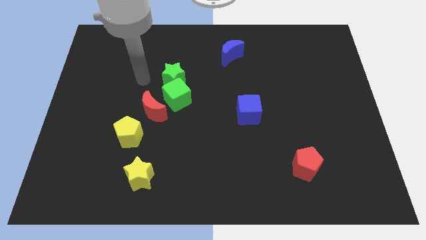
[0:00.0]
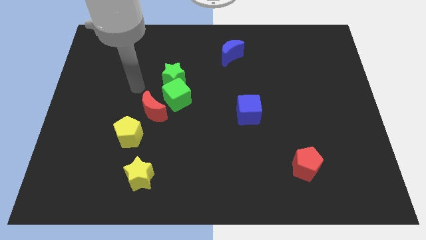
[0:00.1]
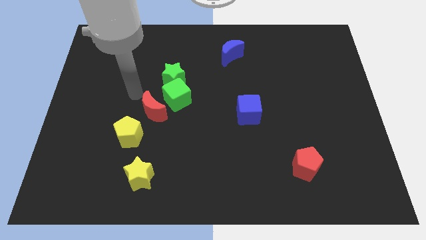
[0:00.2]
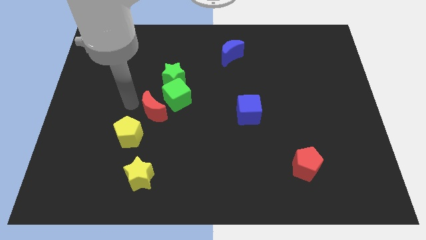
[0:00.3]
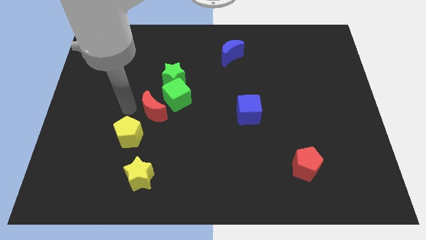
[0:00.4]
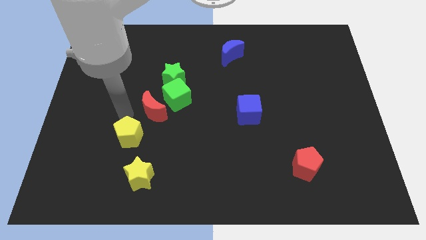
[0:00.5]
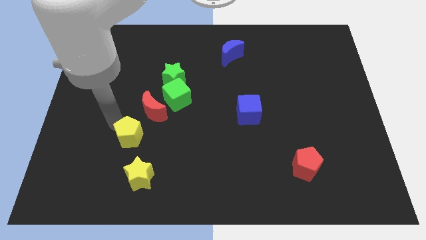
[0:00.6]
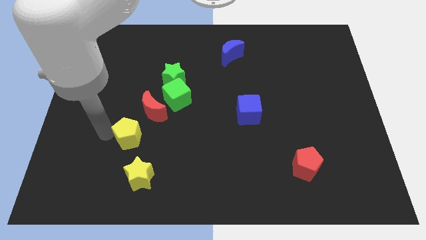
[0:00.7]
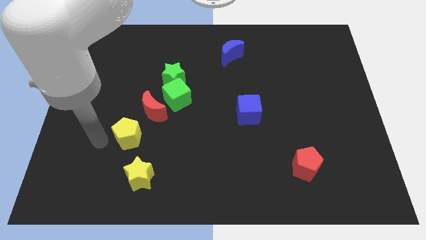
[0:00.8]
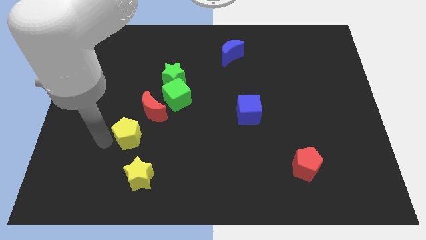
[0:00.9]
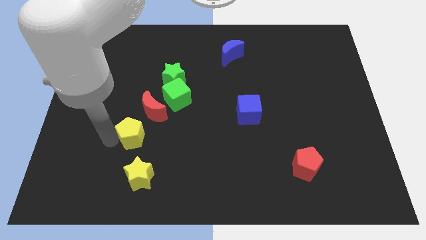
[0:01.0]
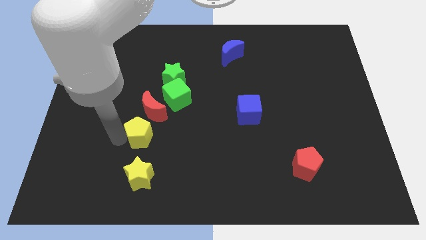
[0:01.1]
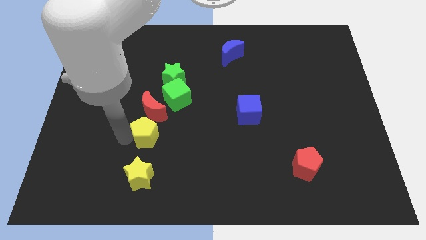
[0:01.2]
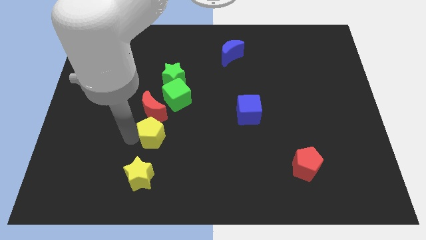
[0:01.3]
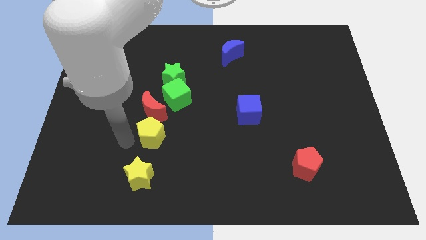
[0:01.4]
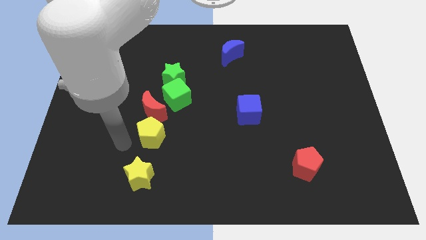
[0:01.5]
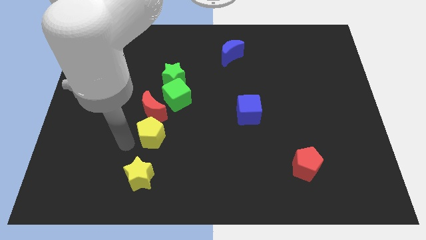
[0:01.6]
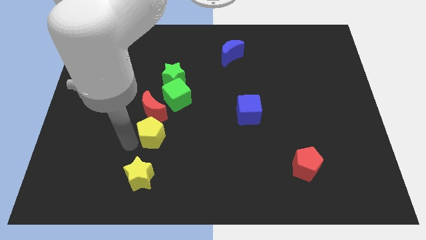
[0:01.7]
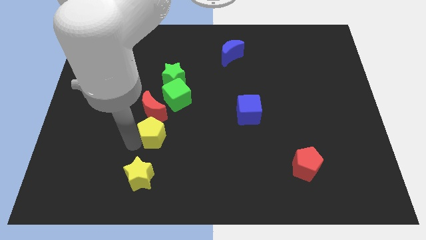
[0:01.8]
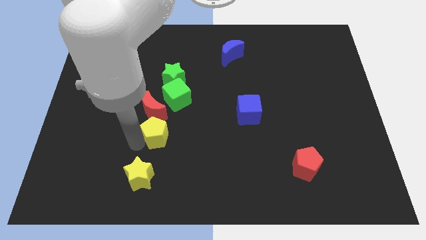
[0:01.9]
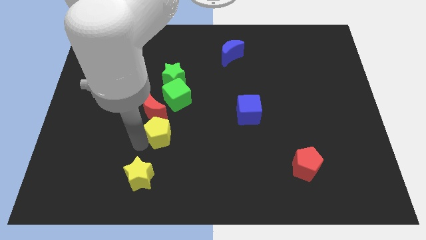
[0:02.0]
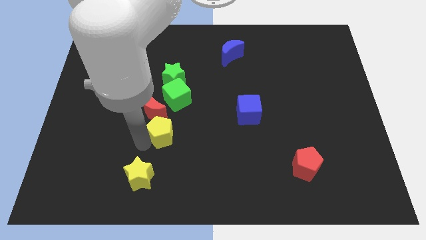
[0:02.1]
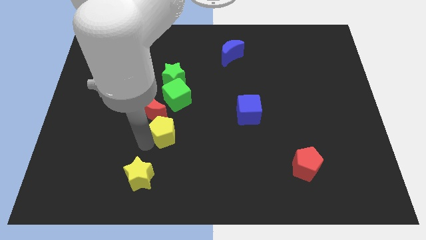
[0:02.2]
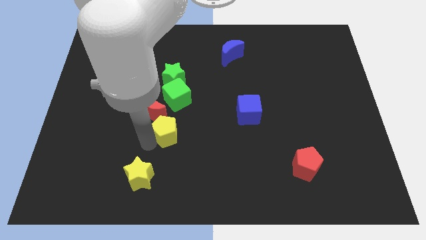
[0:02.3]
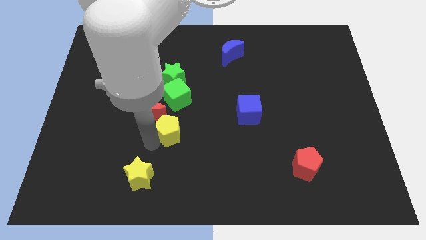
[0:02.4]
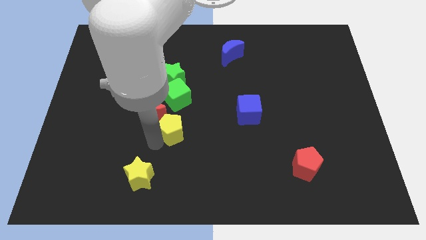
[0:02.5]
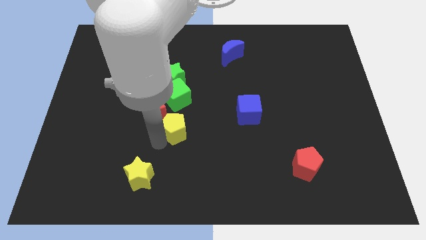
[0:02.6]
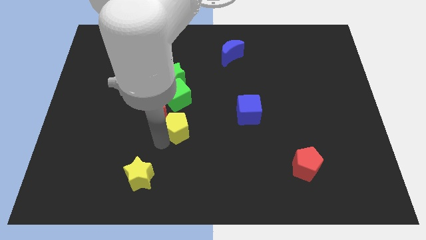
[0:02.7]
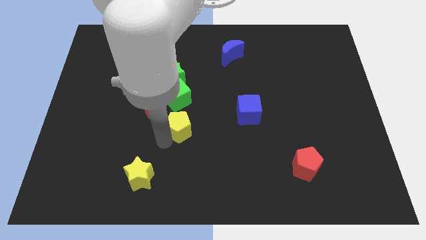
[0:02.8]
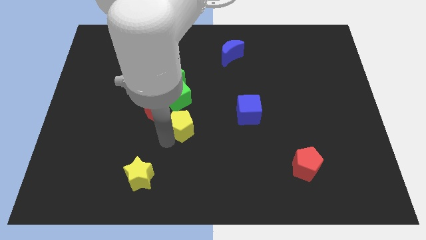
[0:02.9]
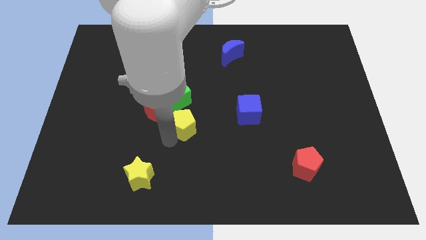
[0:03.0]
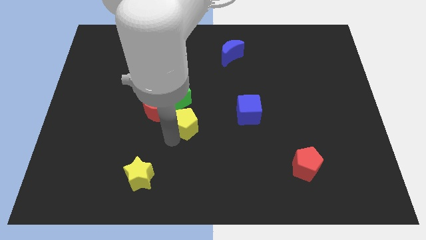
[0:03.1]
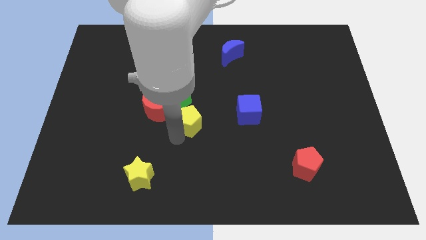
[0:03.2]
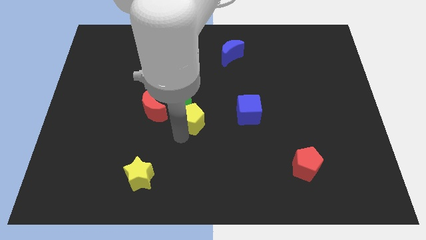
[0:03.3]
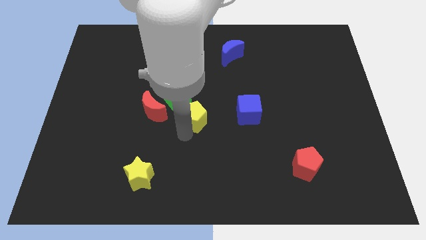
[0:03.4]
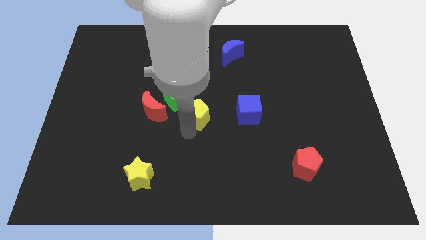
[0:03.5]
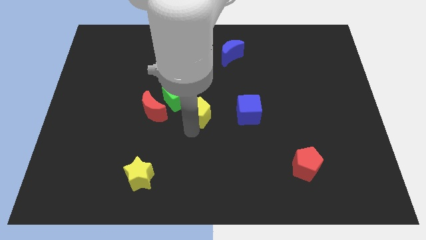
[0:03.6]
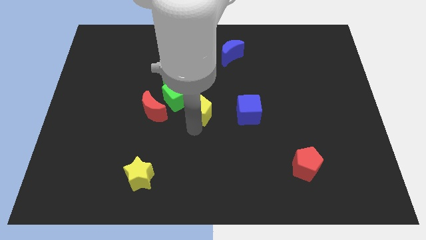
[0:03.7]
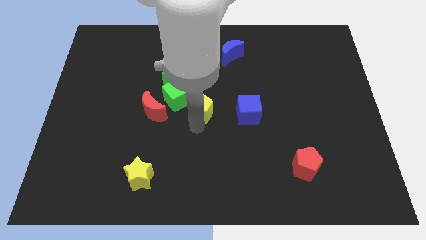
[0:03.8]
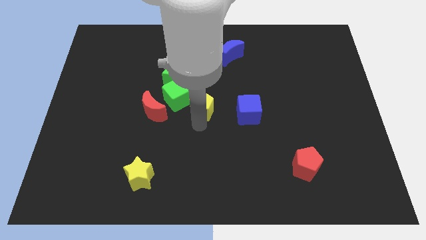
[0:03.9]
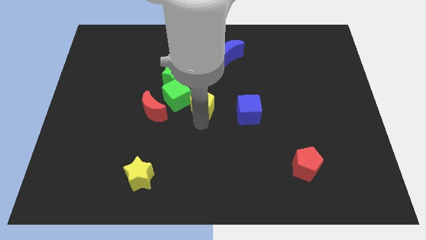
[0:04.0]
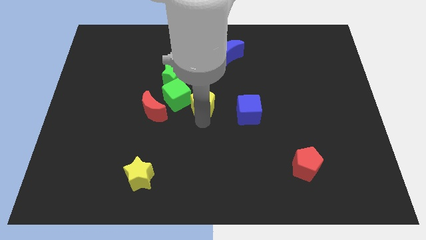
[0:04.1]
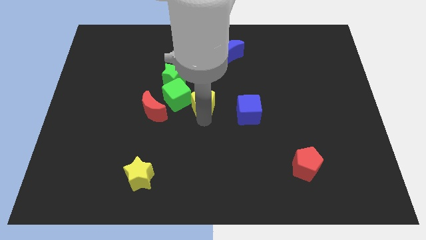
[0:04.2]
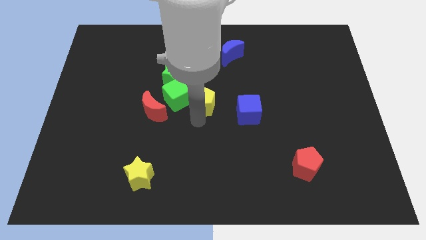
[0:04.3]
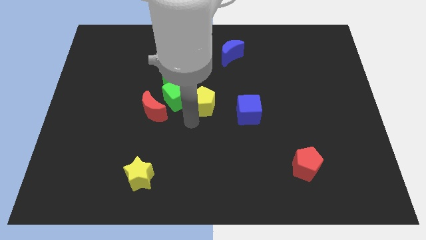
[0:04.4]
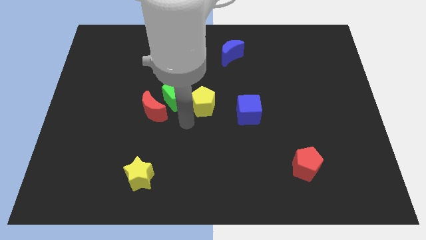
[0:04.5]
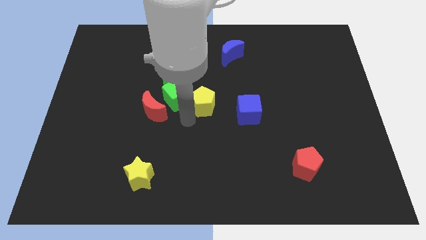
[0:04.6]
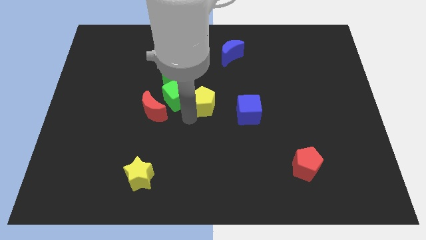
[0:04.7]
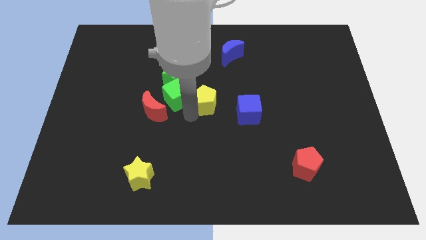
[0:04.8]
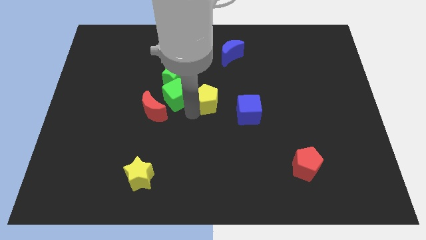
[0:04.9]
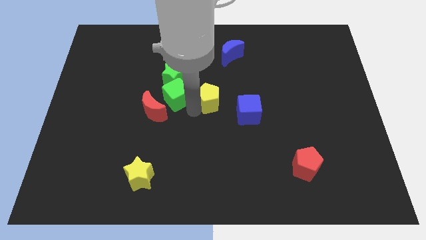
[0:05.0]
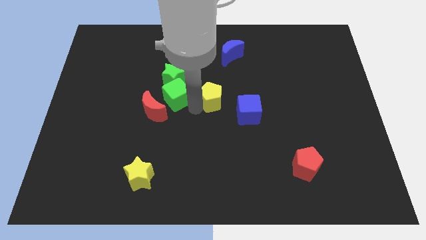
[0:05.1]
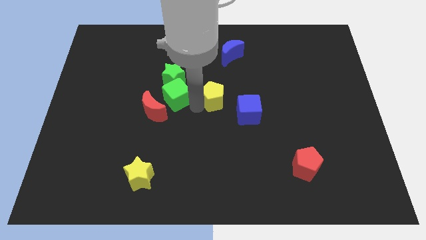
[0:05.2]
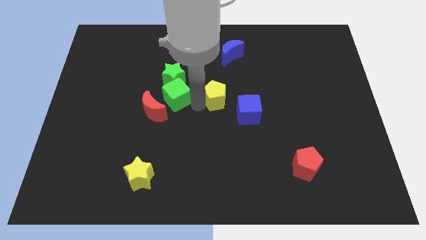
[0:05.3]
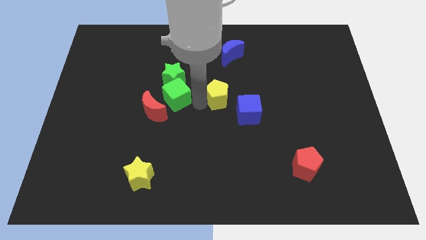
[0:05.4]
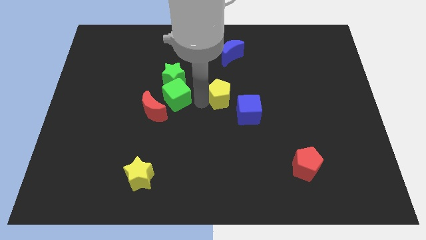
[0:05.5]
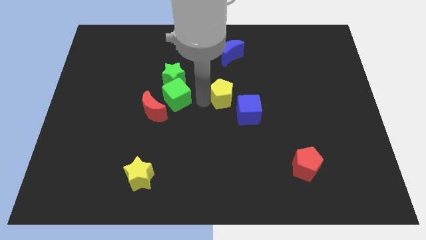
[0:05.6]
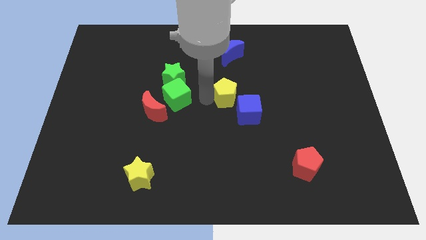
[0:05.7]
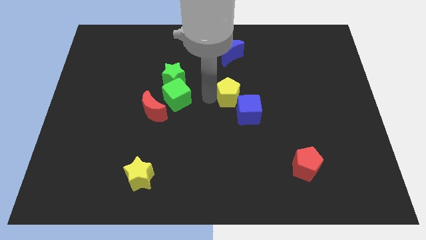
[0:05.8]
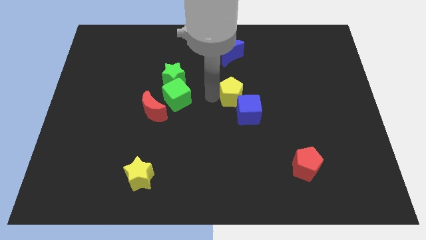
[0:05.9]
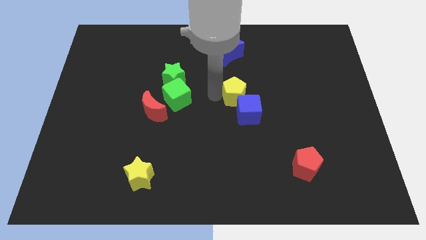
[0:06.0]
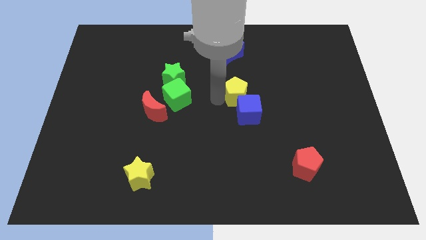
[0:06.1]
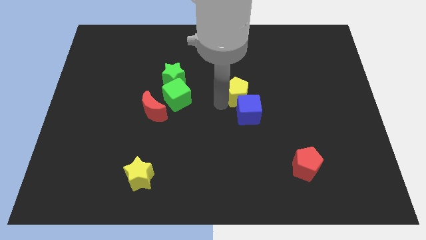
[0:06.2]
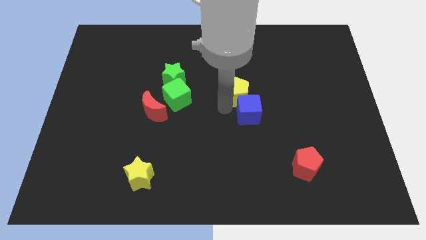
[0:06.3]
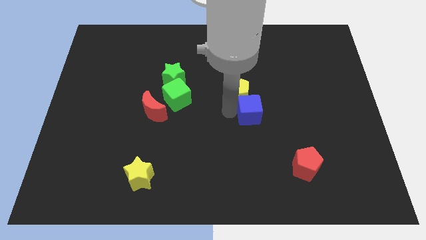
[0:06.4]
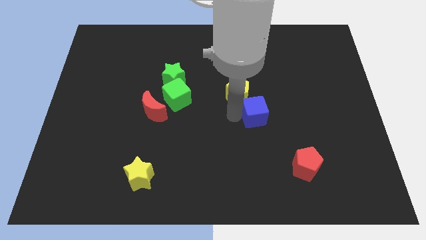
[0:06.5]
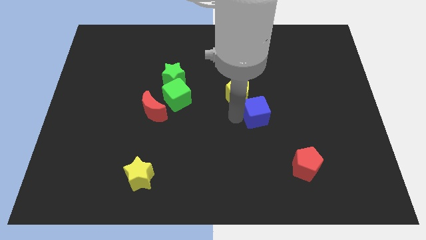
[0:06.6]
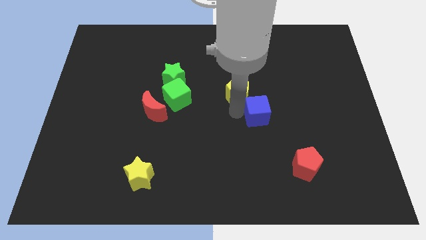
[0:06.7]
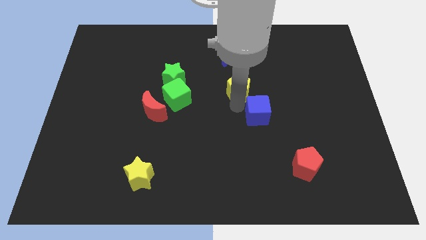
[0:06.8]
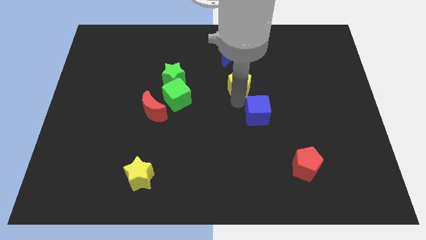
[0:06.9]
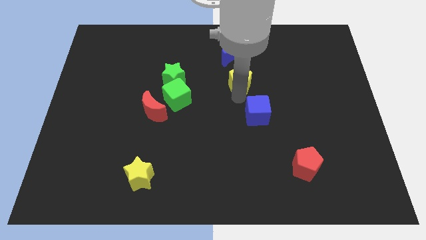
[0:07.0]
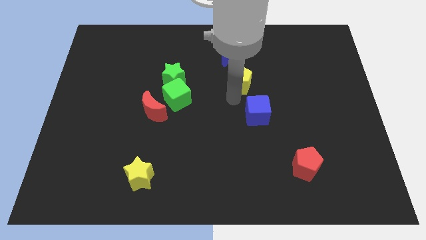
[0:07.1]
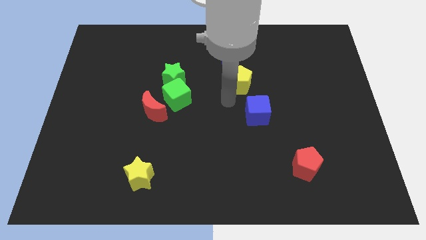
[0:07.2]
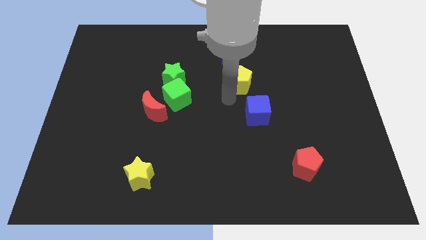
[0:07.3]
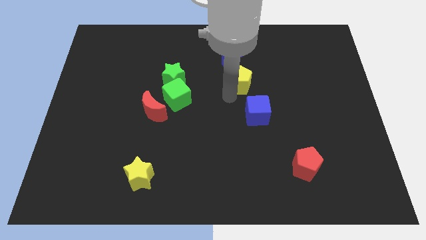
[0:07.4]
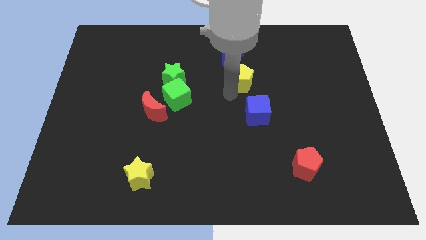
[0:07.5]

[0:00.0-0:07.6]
push the yellow pentagon to the bottom right of the blue moon

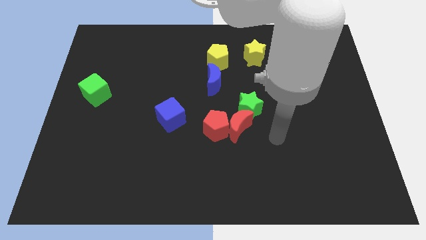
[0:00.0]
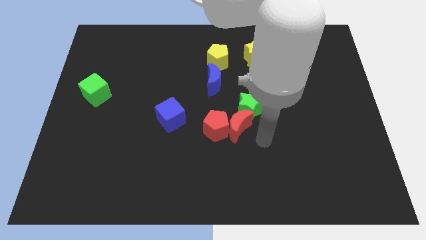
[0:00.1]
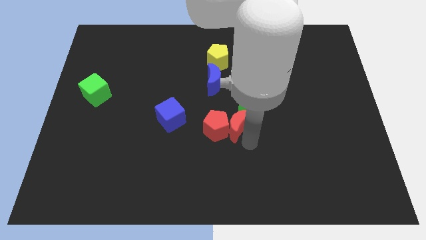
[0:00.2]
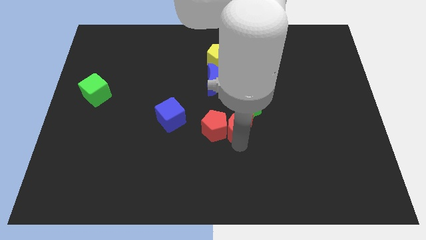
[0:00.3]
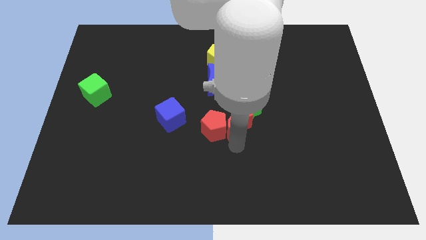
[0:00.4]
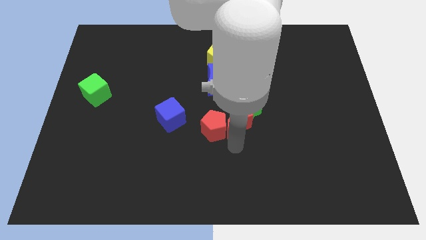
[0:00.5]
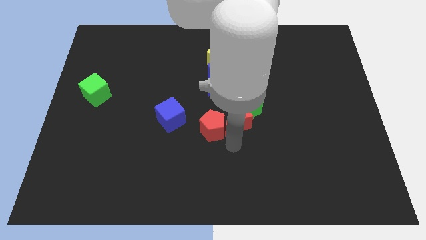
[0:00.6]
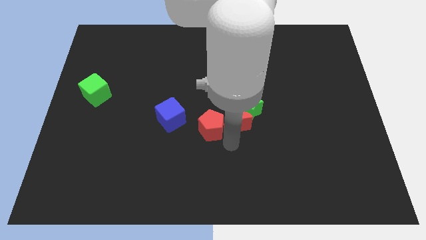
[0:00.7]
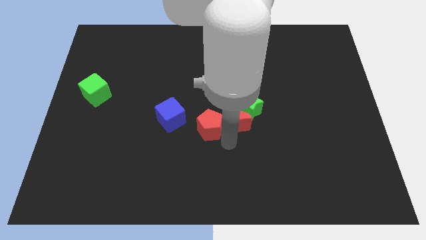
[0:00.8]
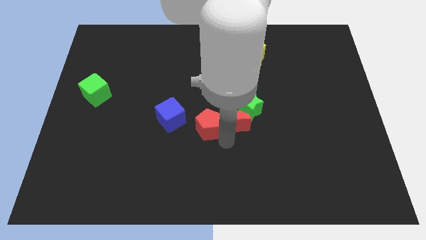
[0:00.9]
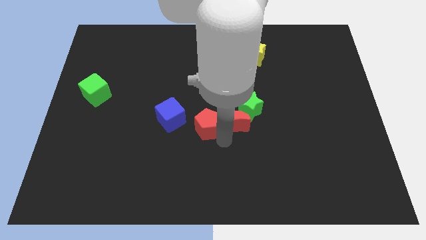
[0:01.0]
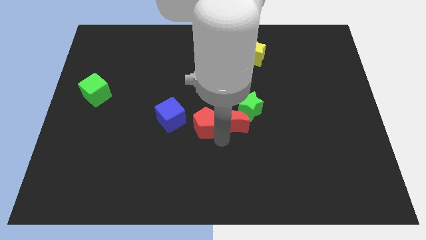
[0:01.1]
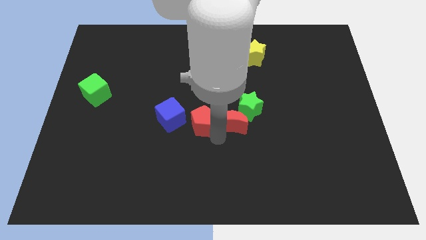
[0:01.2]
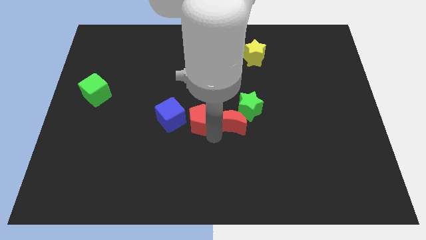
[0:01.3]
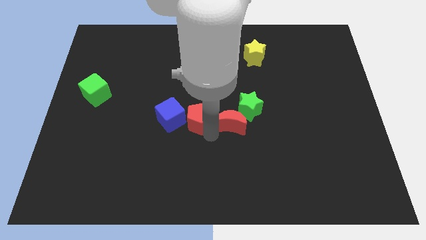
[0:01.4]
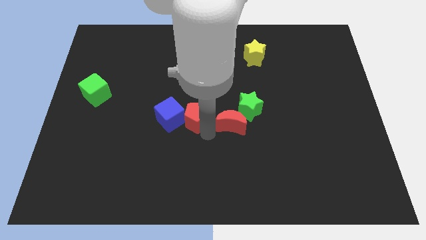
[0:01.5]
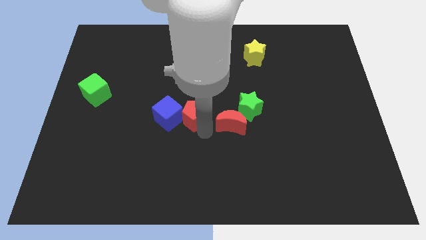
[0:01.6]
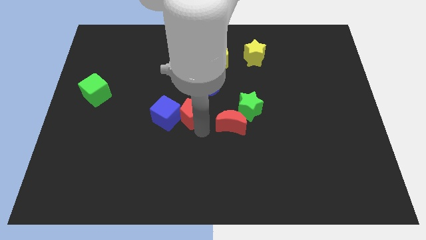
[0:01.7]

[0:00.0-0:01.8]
push the red pentagon diagonally down and to the left of the blue moon
